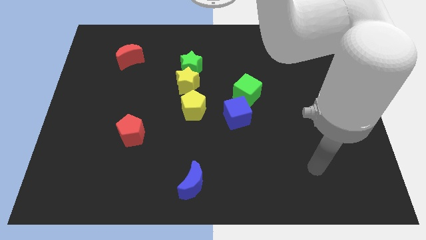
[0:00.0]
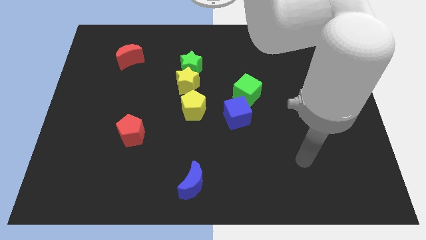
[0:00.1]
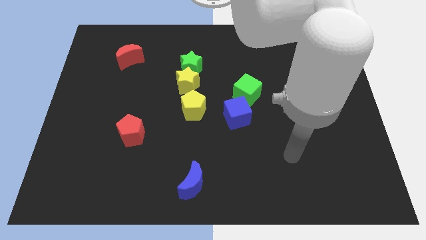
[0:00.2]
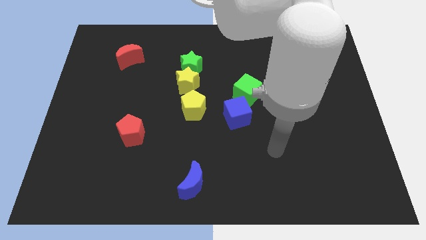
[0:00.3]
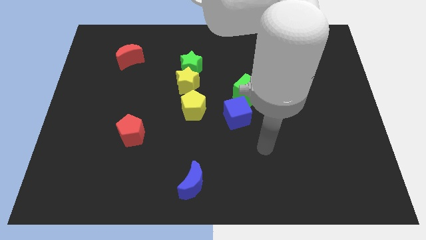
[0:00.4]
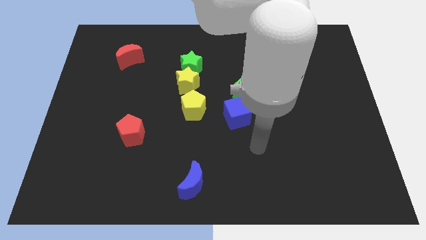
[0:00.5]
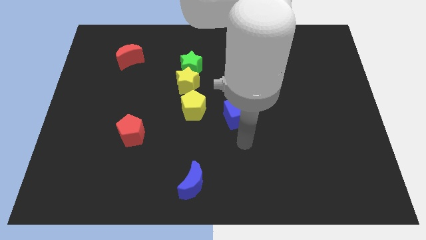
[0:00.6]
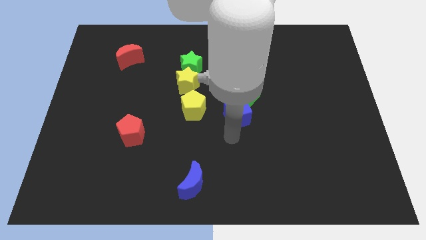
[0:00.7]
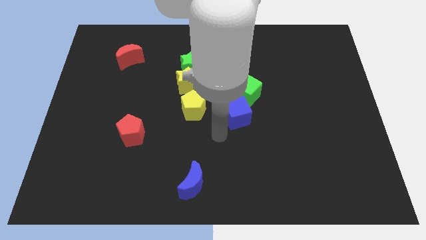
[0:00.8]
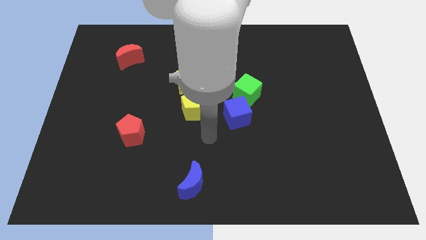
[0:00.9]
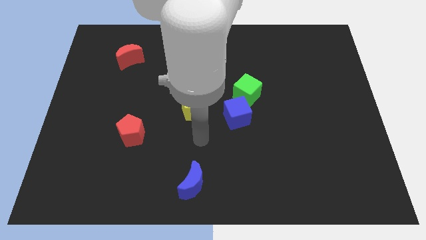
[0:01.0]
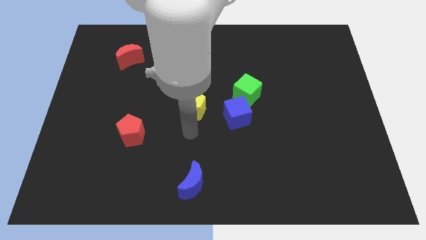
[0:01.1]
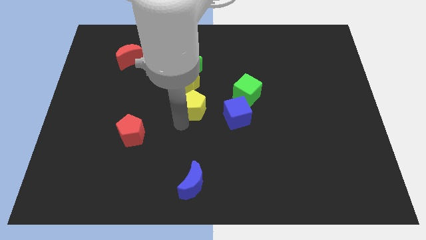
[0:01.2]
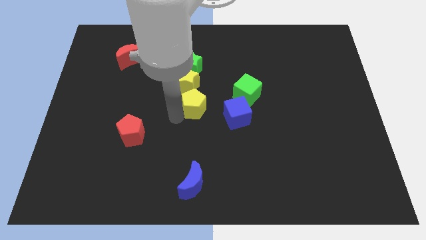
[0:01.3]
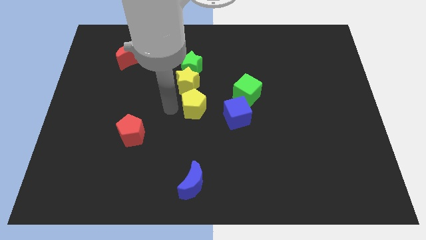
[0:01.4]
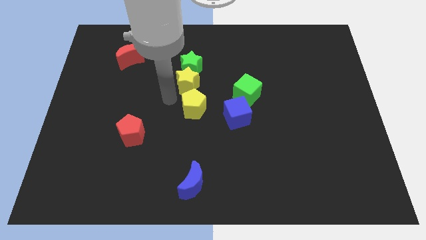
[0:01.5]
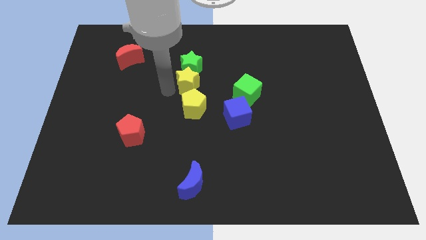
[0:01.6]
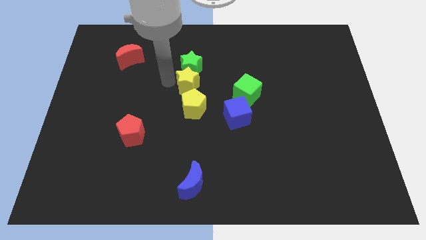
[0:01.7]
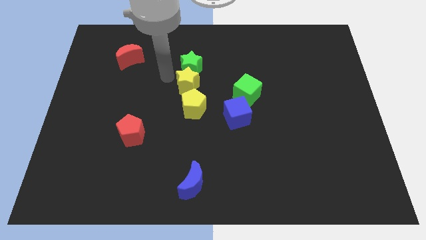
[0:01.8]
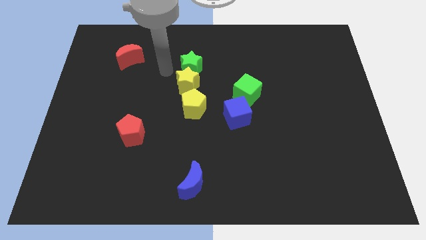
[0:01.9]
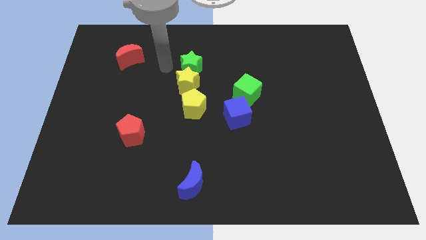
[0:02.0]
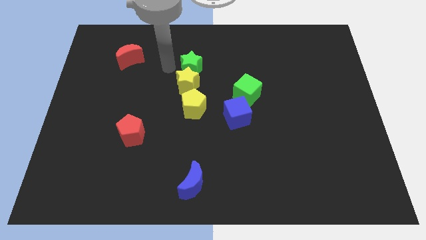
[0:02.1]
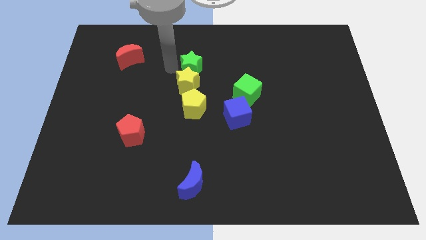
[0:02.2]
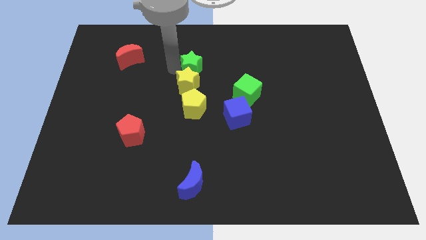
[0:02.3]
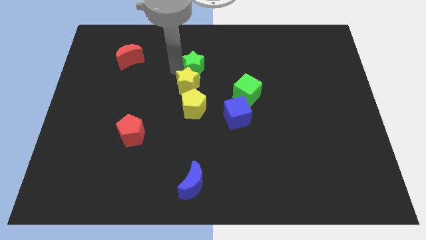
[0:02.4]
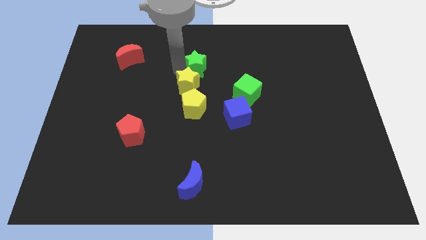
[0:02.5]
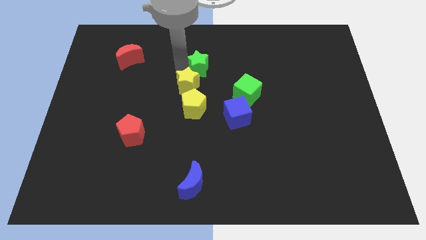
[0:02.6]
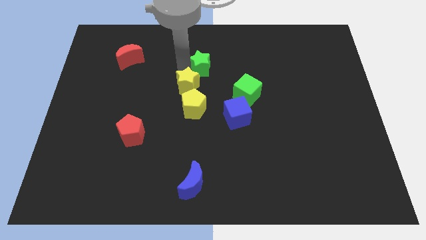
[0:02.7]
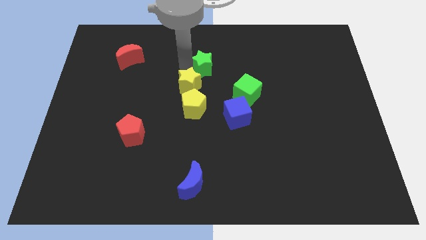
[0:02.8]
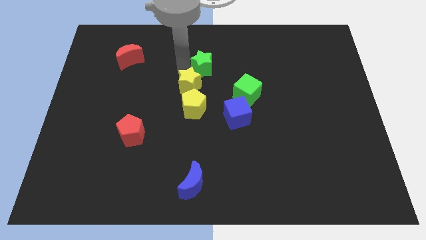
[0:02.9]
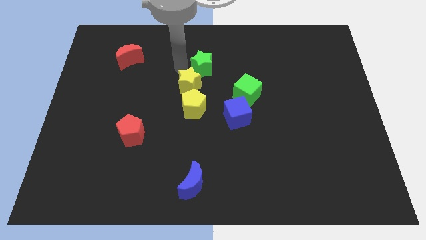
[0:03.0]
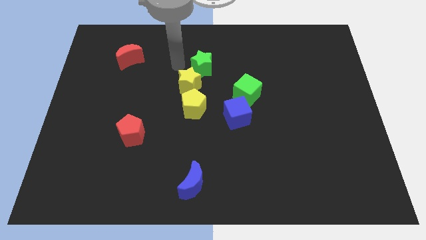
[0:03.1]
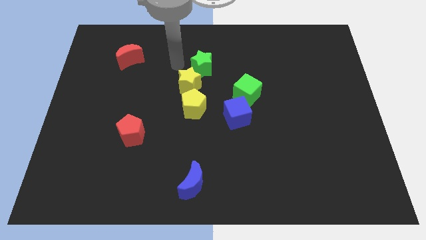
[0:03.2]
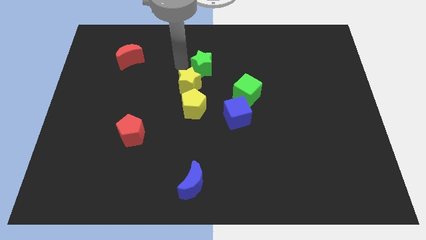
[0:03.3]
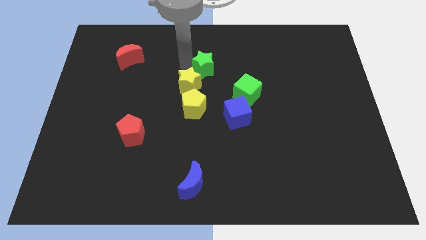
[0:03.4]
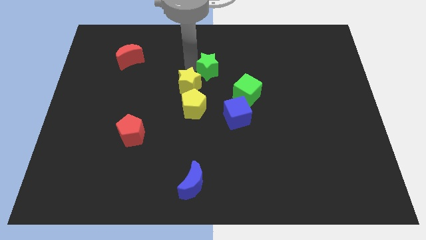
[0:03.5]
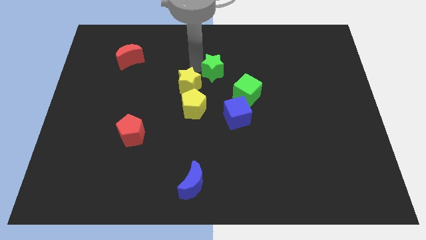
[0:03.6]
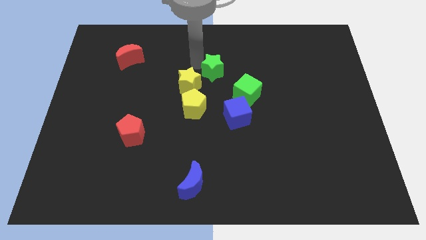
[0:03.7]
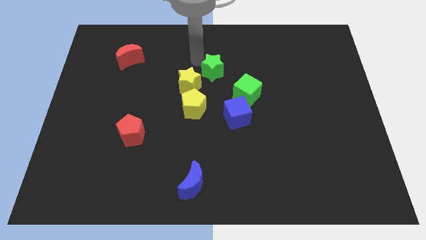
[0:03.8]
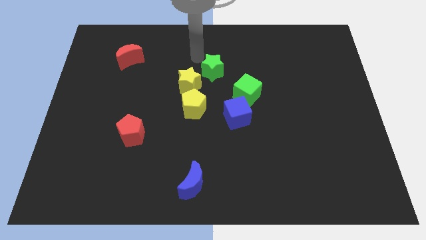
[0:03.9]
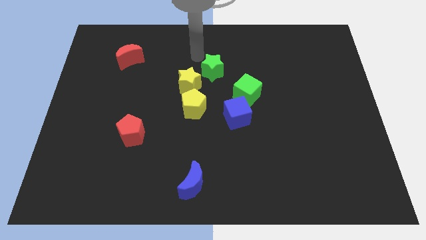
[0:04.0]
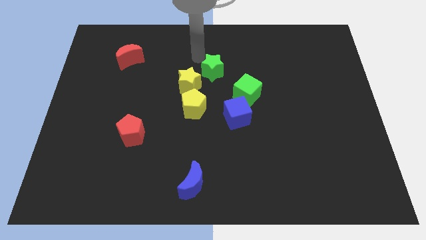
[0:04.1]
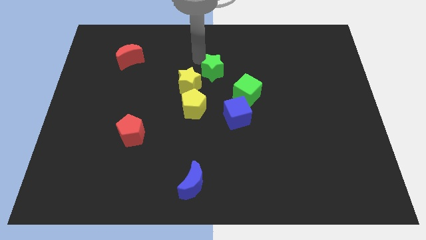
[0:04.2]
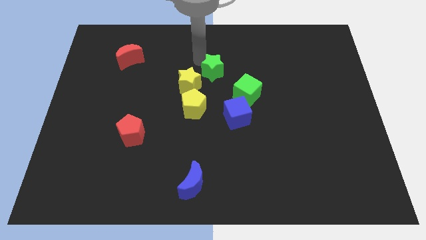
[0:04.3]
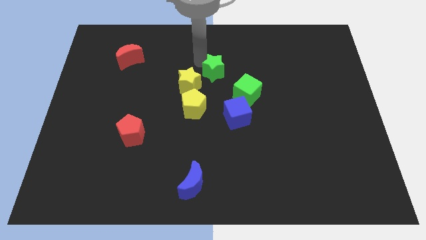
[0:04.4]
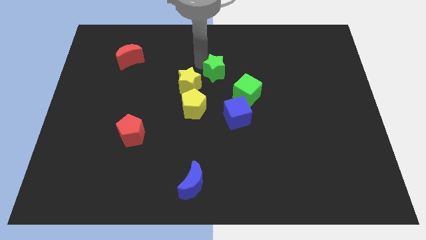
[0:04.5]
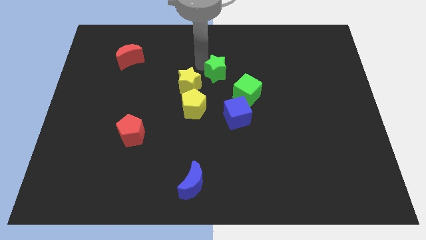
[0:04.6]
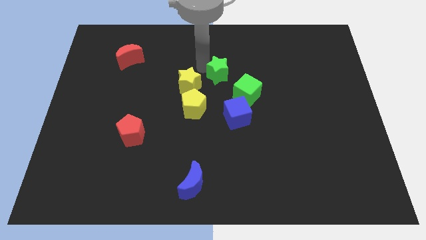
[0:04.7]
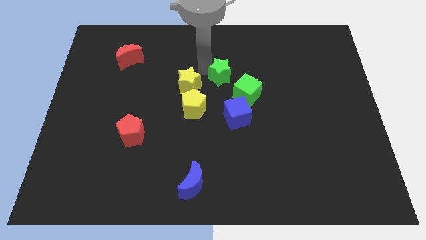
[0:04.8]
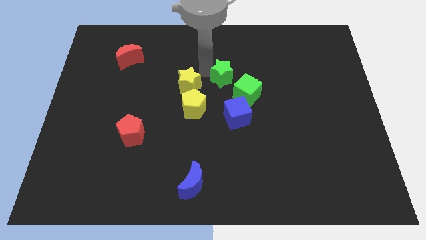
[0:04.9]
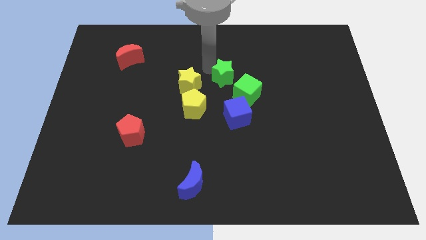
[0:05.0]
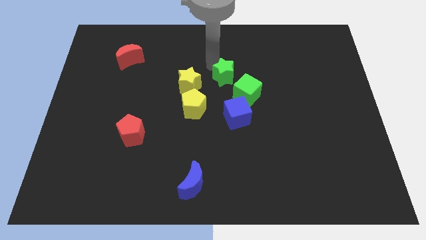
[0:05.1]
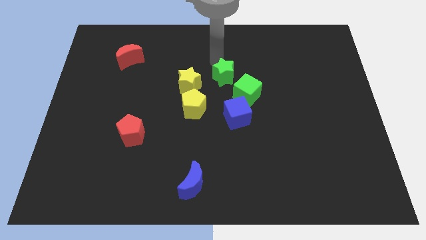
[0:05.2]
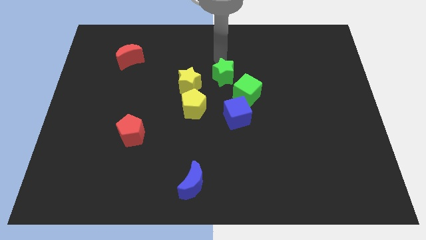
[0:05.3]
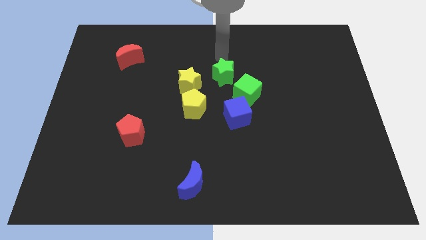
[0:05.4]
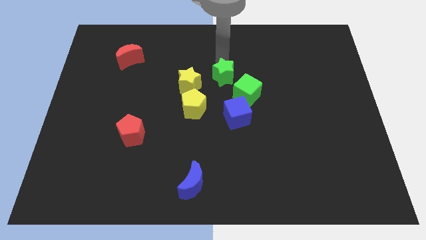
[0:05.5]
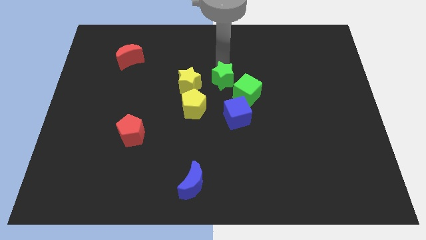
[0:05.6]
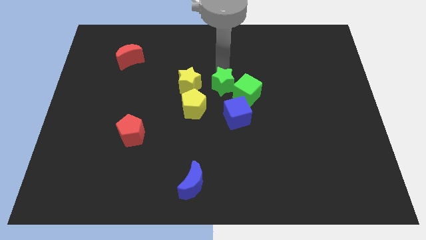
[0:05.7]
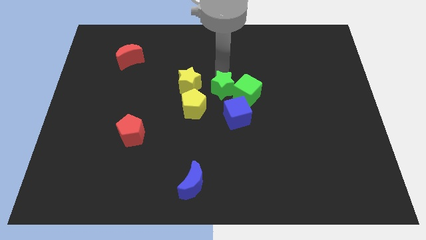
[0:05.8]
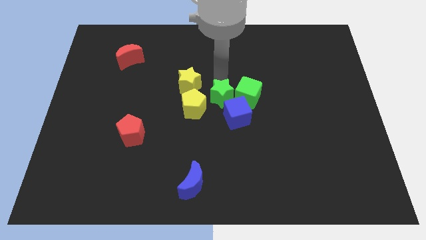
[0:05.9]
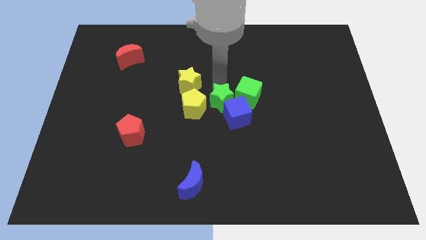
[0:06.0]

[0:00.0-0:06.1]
move the green star next to the blue cube

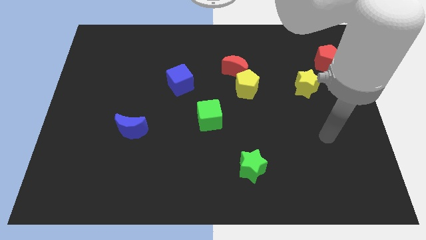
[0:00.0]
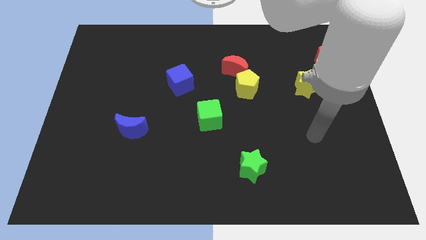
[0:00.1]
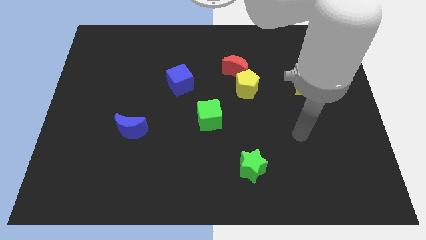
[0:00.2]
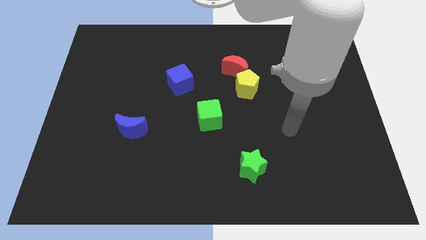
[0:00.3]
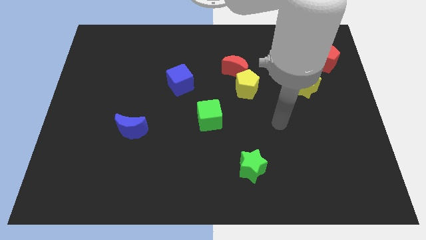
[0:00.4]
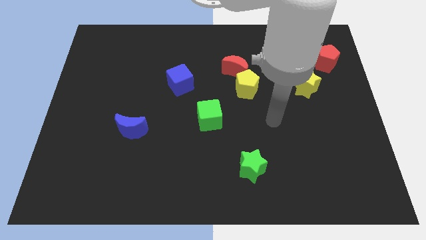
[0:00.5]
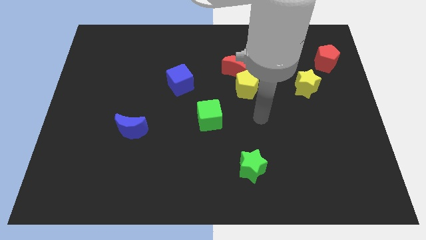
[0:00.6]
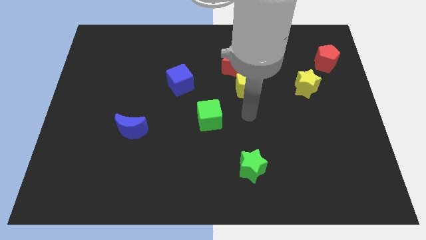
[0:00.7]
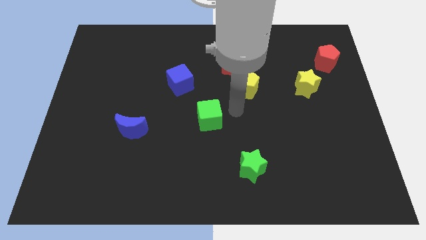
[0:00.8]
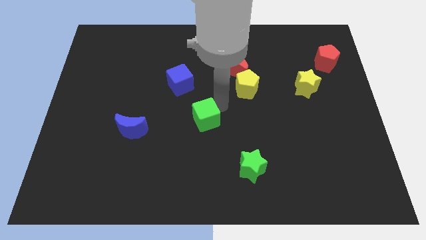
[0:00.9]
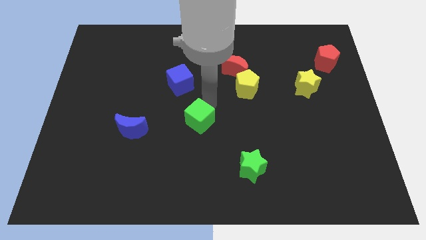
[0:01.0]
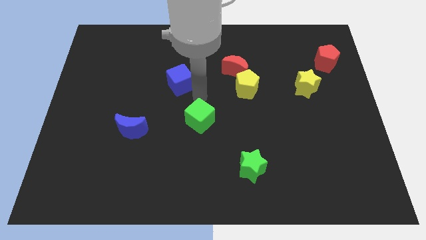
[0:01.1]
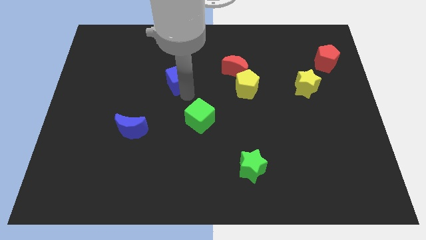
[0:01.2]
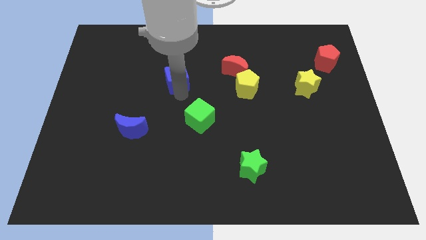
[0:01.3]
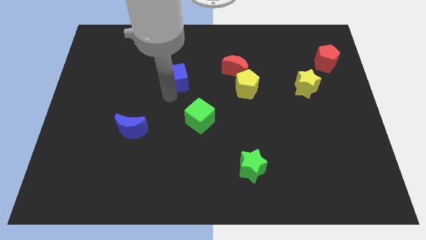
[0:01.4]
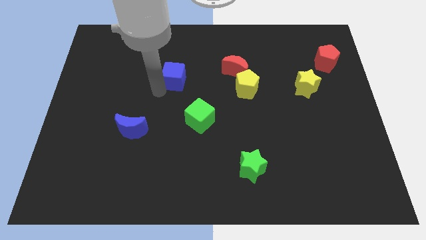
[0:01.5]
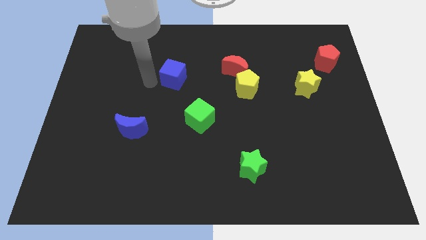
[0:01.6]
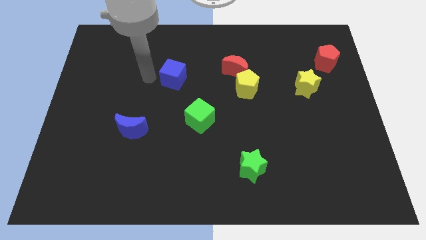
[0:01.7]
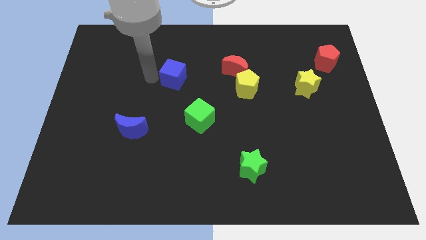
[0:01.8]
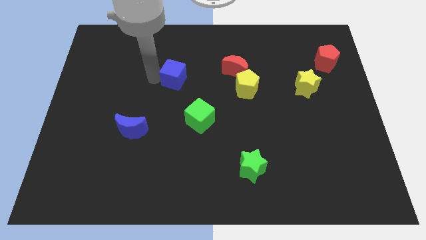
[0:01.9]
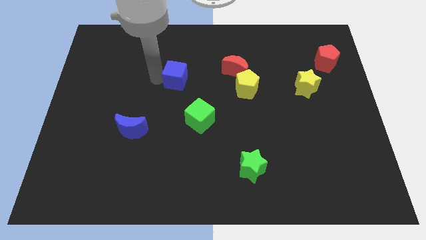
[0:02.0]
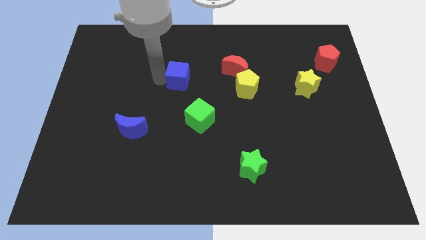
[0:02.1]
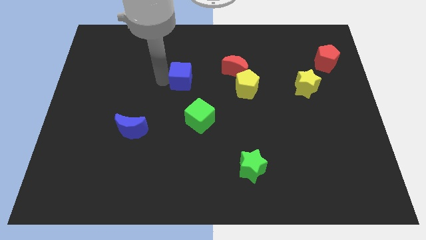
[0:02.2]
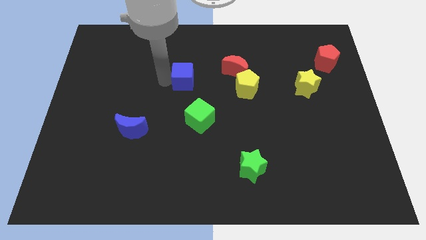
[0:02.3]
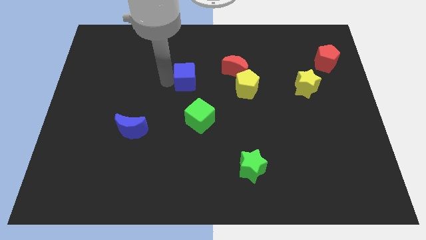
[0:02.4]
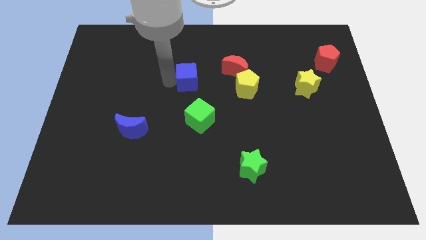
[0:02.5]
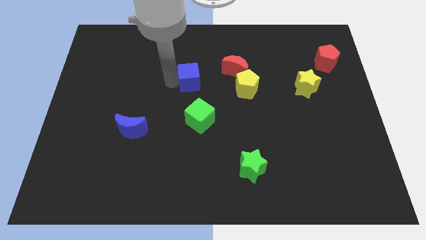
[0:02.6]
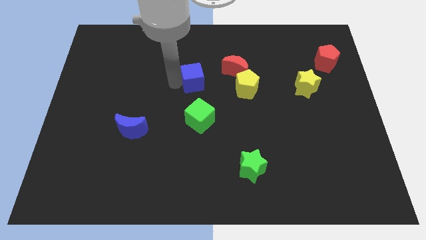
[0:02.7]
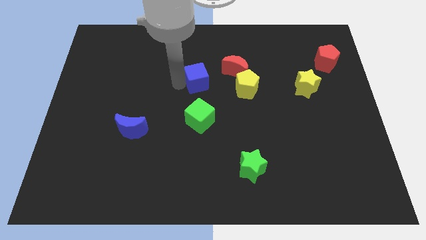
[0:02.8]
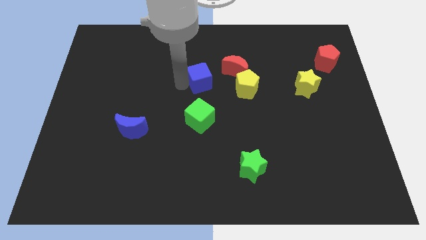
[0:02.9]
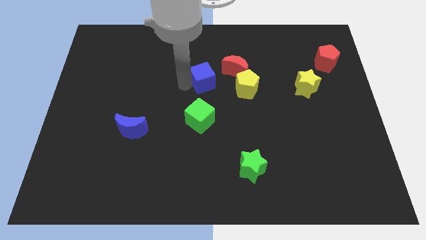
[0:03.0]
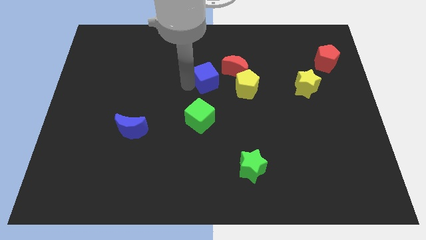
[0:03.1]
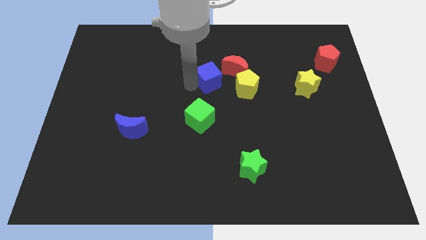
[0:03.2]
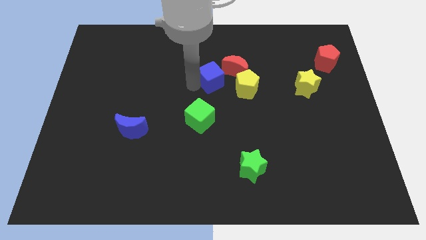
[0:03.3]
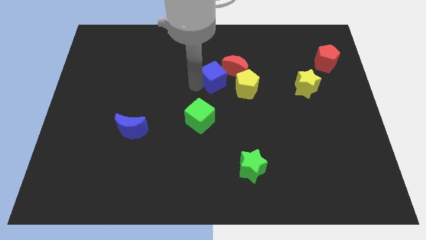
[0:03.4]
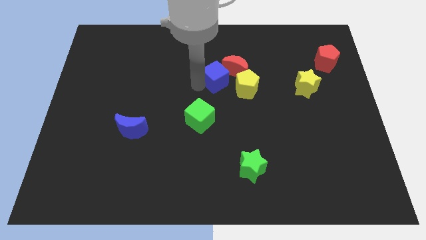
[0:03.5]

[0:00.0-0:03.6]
slide the blue cube towards the red moon
